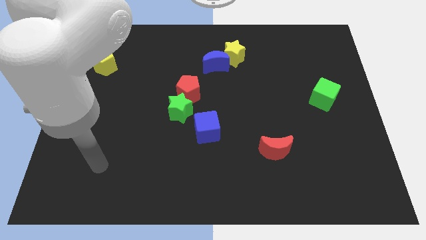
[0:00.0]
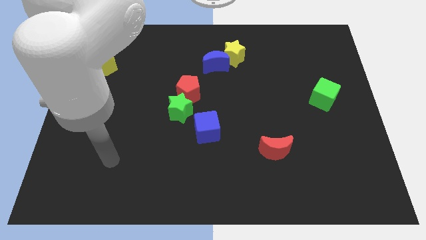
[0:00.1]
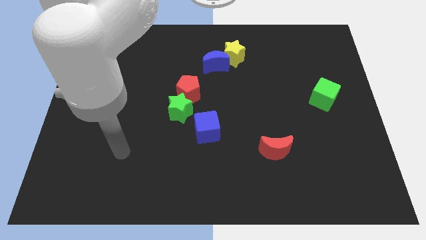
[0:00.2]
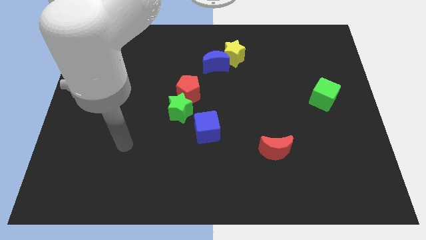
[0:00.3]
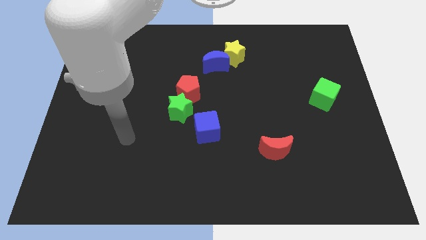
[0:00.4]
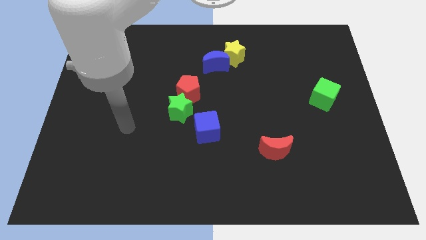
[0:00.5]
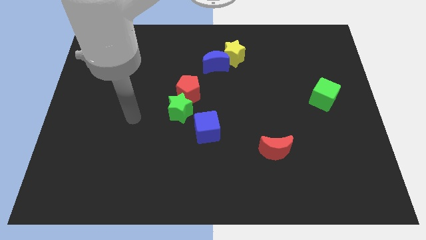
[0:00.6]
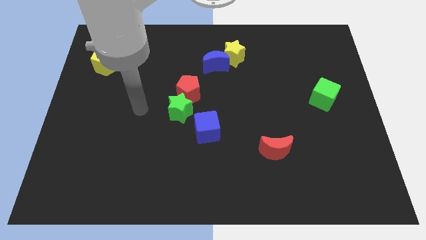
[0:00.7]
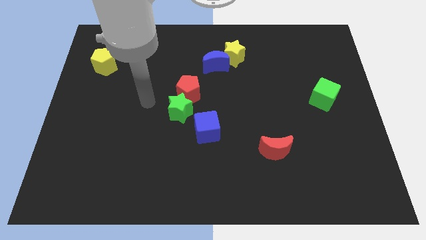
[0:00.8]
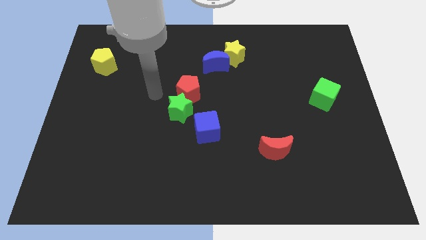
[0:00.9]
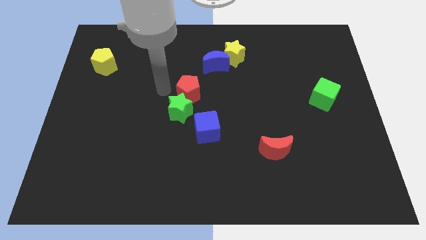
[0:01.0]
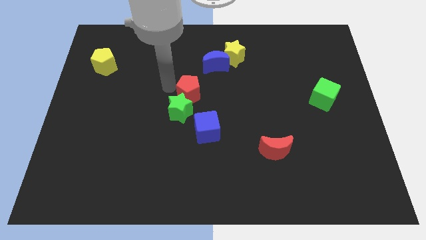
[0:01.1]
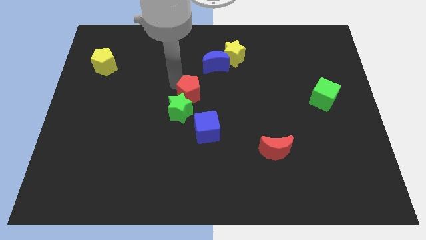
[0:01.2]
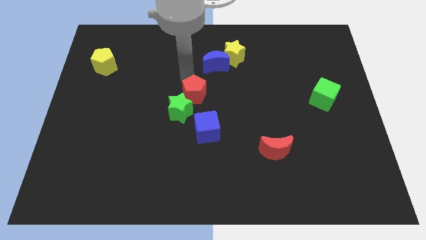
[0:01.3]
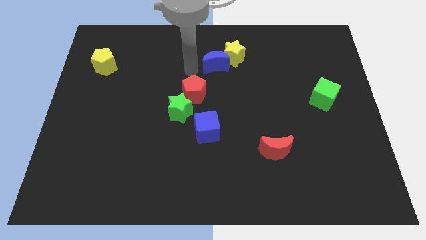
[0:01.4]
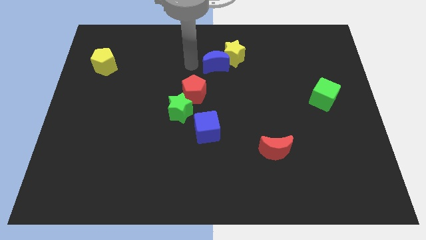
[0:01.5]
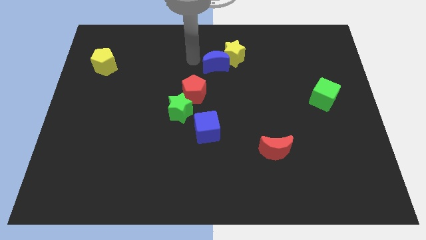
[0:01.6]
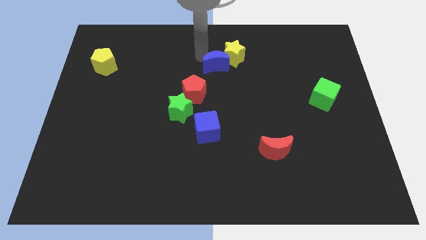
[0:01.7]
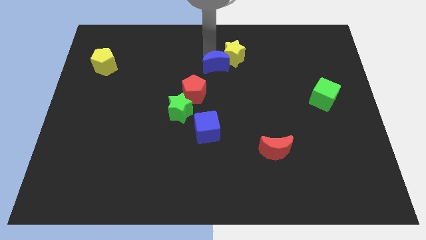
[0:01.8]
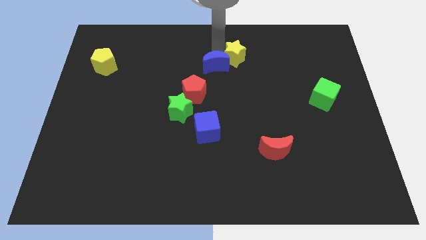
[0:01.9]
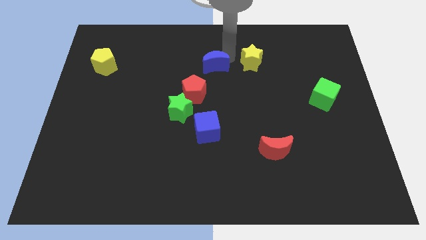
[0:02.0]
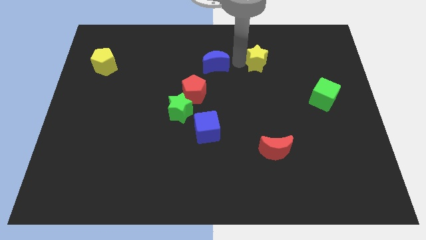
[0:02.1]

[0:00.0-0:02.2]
pull the blue moon apart from the yellow star

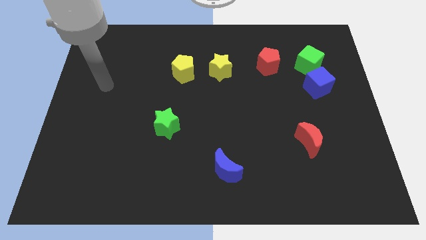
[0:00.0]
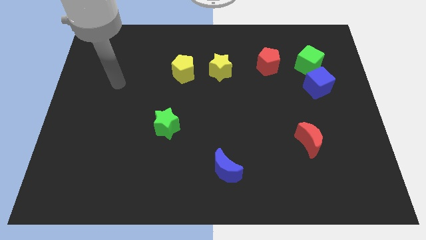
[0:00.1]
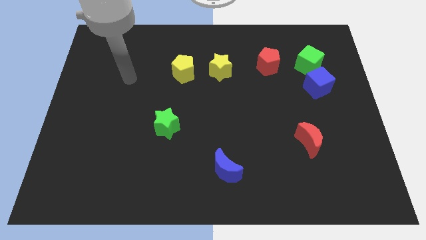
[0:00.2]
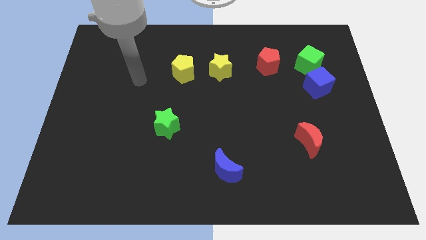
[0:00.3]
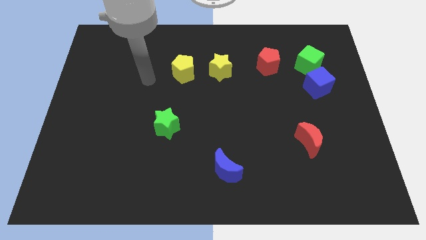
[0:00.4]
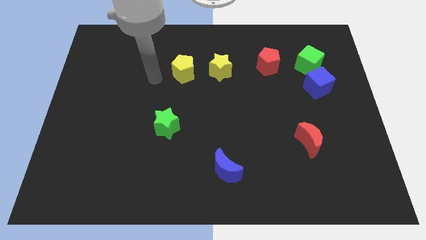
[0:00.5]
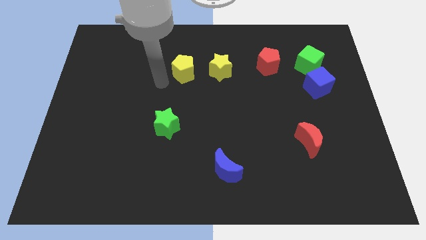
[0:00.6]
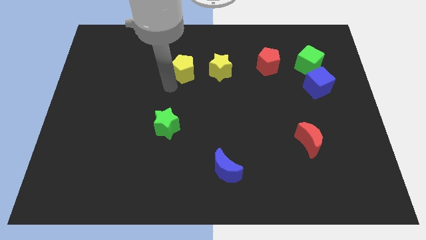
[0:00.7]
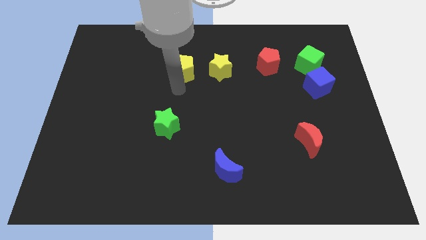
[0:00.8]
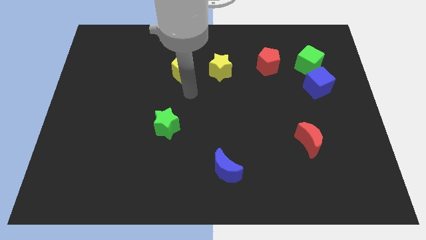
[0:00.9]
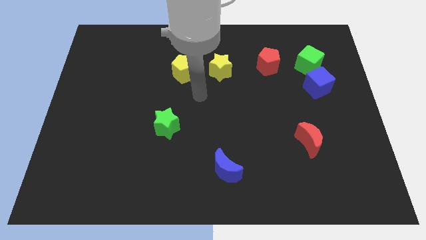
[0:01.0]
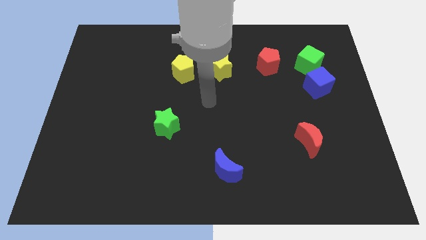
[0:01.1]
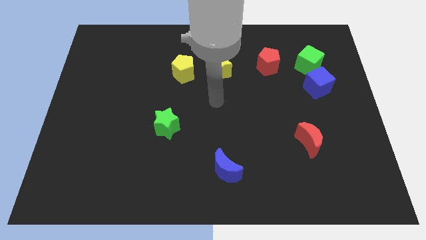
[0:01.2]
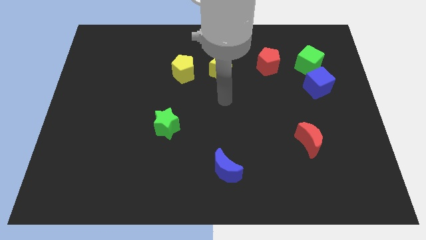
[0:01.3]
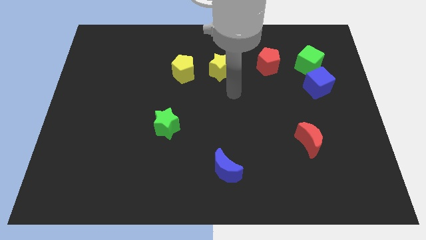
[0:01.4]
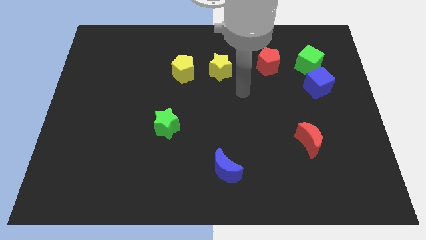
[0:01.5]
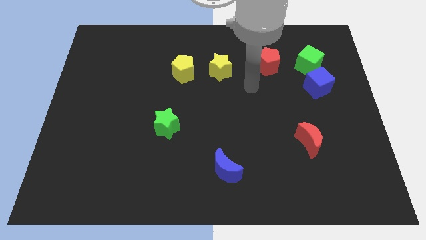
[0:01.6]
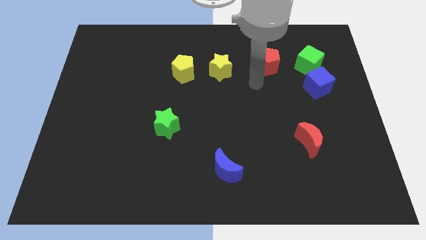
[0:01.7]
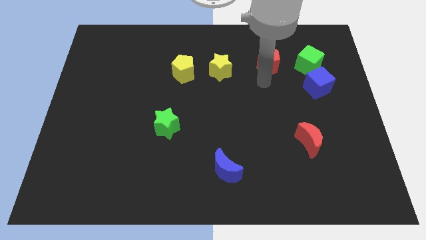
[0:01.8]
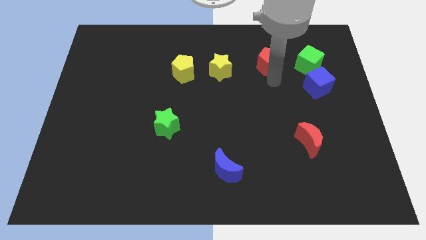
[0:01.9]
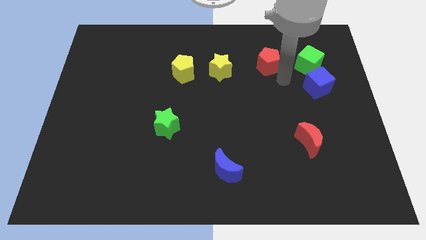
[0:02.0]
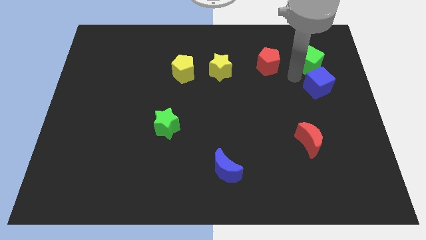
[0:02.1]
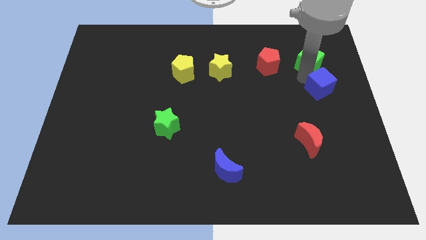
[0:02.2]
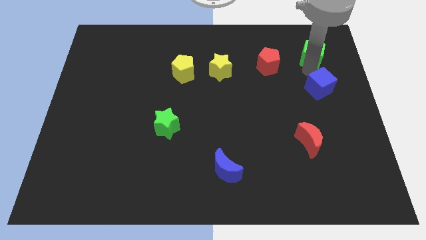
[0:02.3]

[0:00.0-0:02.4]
separate the blue cube from the green cube

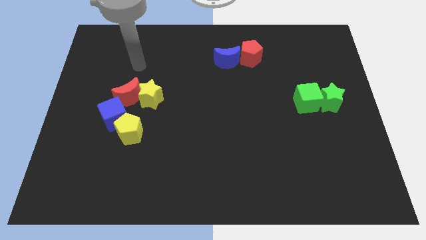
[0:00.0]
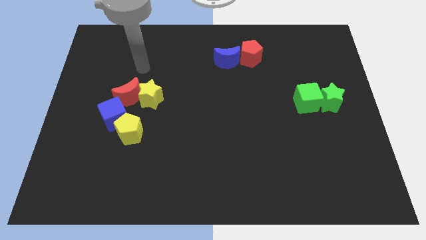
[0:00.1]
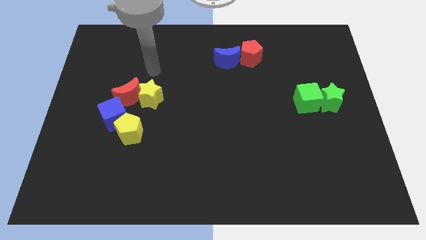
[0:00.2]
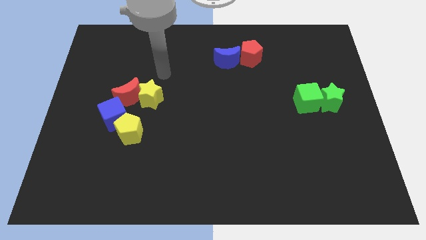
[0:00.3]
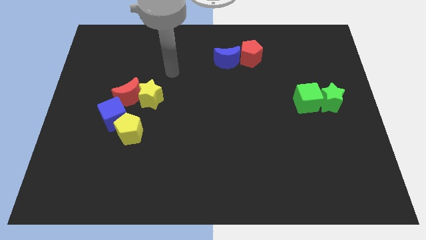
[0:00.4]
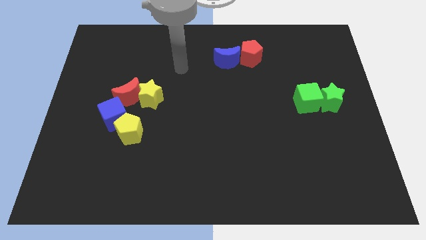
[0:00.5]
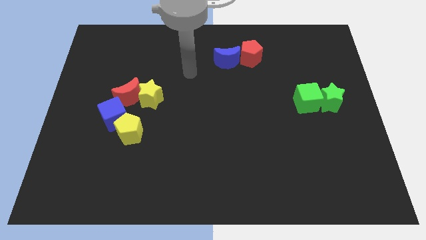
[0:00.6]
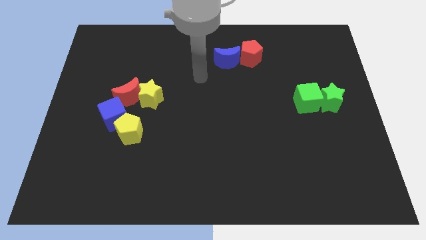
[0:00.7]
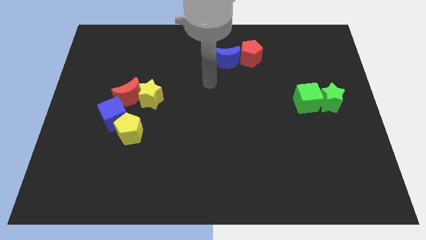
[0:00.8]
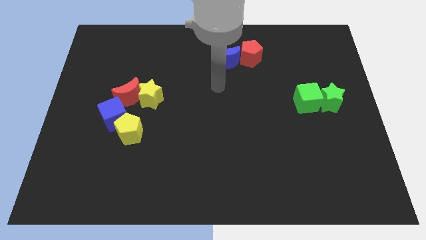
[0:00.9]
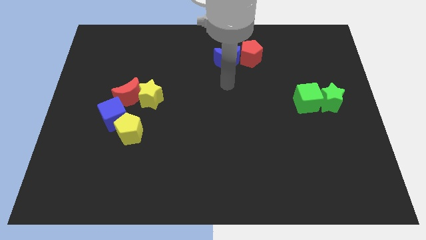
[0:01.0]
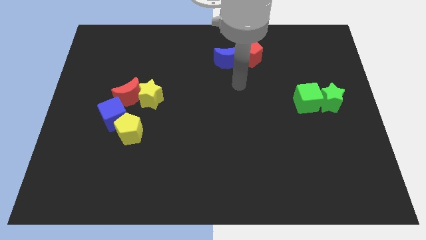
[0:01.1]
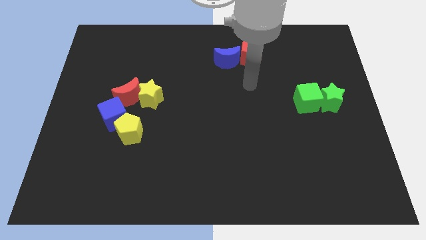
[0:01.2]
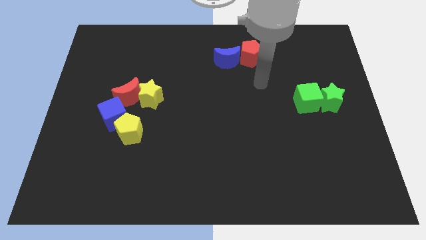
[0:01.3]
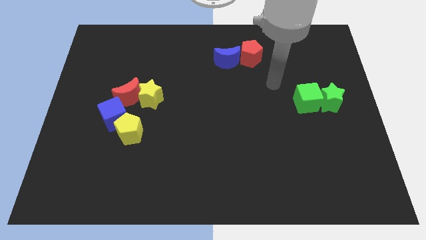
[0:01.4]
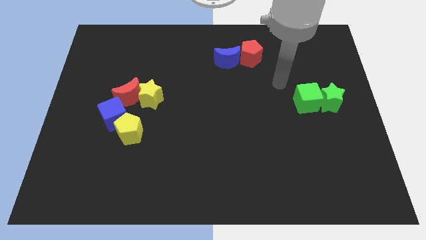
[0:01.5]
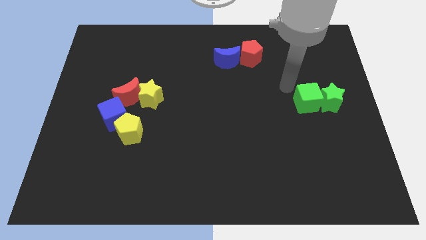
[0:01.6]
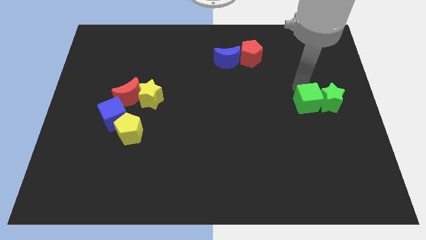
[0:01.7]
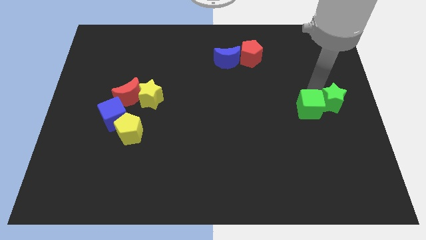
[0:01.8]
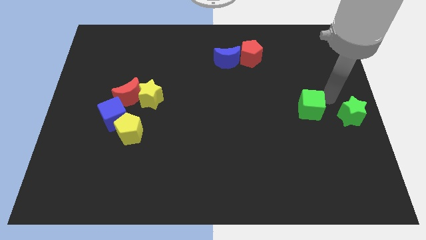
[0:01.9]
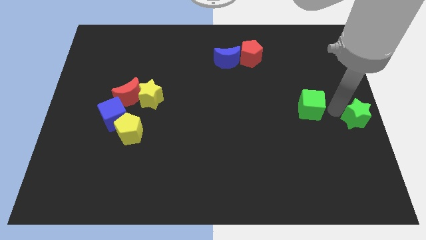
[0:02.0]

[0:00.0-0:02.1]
pull the green cube apart from the green star

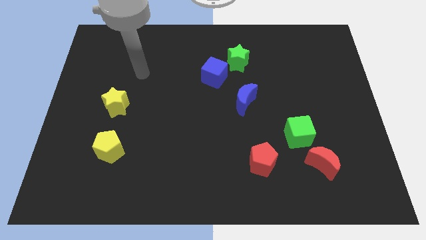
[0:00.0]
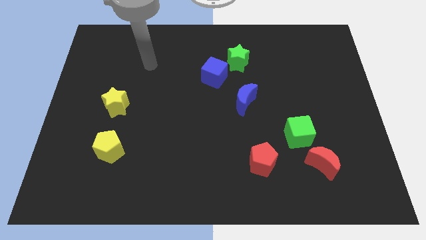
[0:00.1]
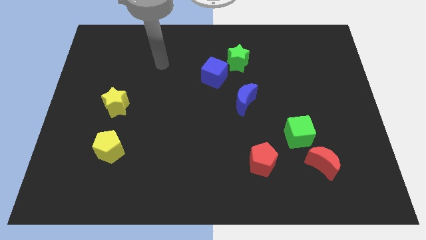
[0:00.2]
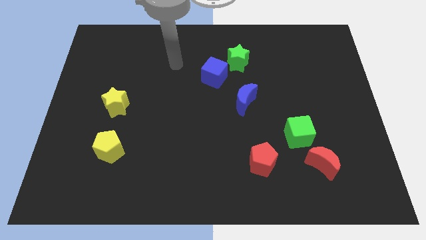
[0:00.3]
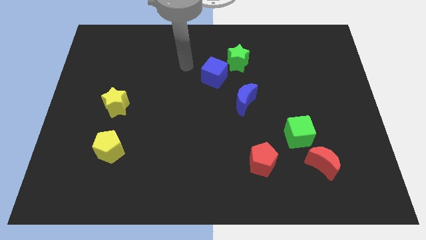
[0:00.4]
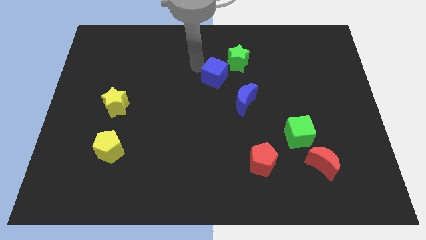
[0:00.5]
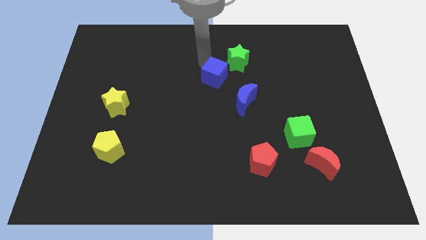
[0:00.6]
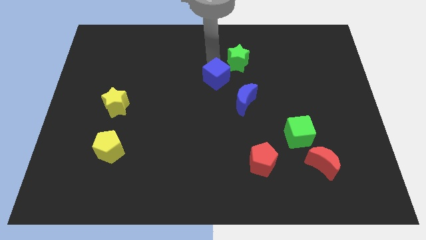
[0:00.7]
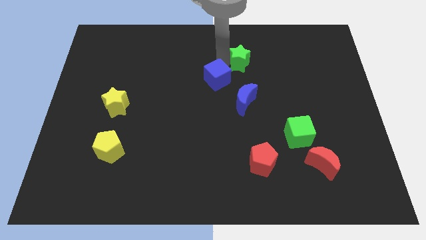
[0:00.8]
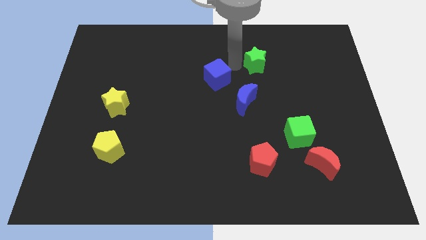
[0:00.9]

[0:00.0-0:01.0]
pull the blue cube apart from the green star

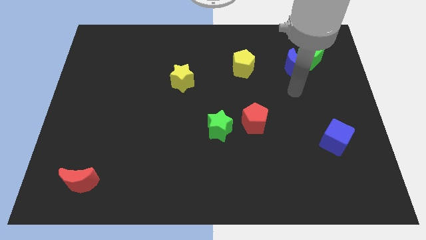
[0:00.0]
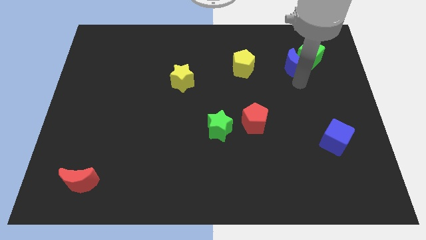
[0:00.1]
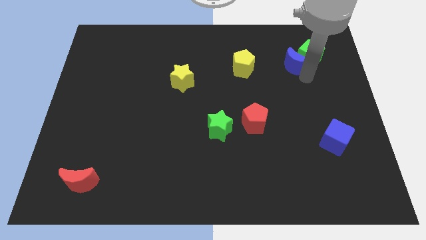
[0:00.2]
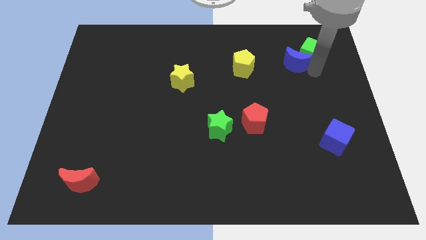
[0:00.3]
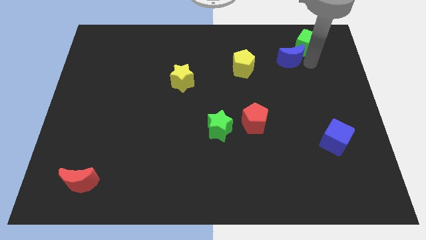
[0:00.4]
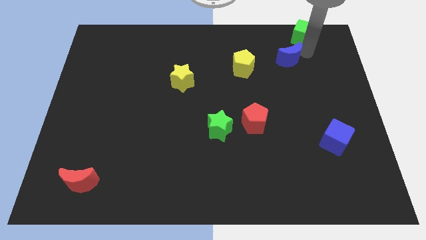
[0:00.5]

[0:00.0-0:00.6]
pull the blue moon apart from the green cube

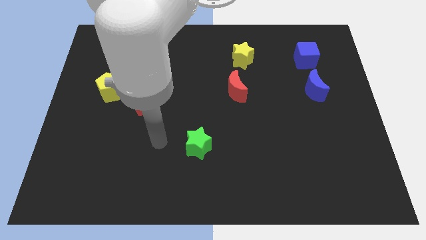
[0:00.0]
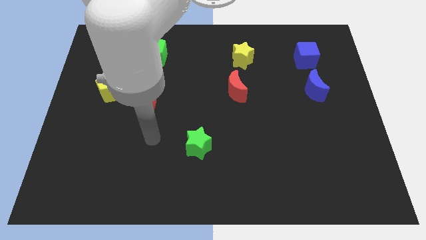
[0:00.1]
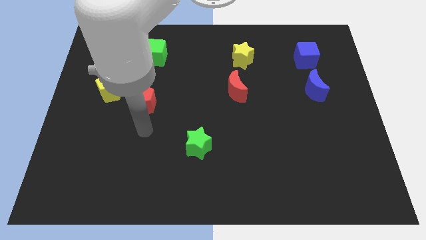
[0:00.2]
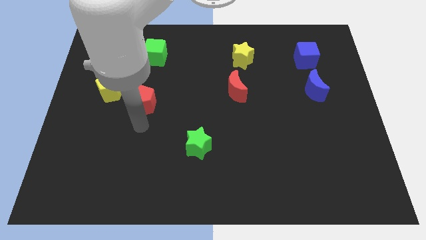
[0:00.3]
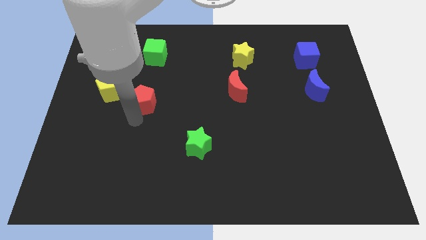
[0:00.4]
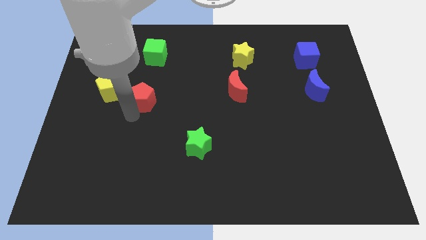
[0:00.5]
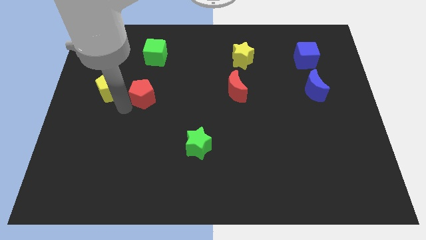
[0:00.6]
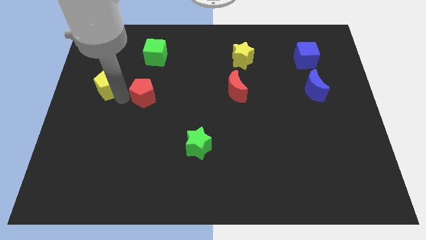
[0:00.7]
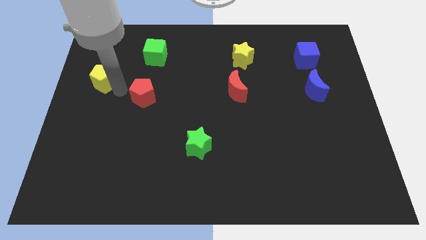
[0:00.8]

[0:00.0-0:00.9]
separate the red pentagon from the yellow pentagon
